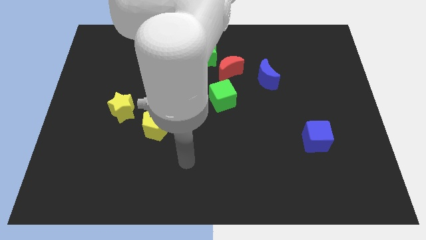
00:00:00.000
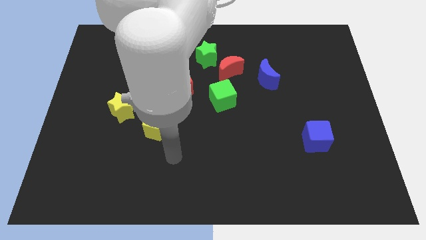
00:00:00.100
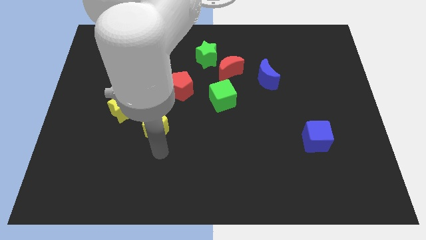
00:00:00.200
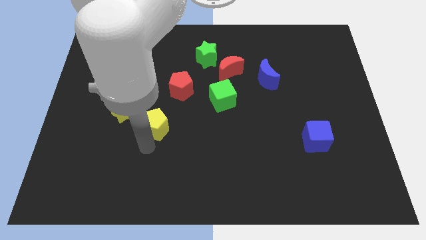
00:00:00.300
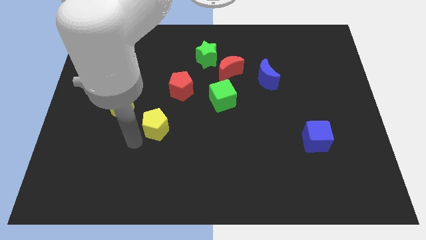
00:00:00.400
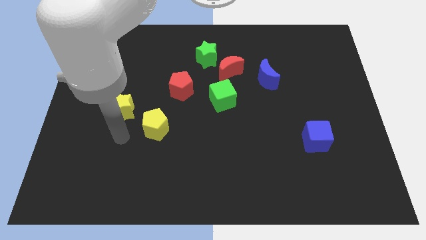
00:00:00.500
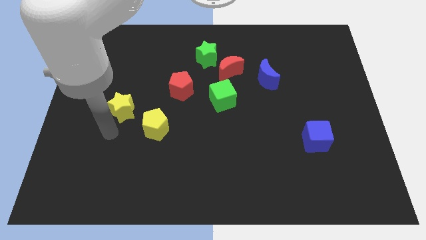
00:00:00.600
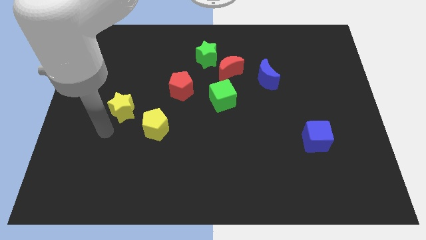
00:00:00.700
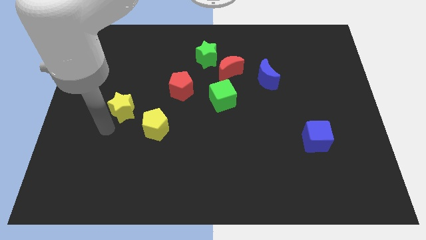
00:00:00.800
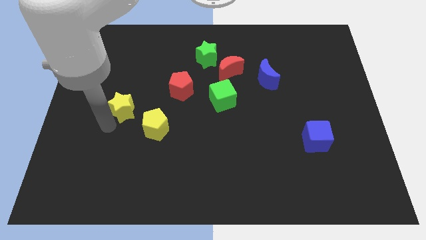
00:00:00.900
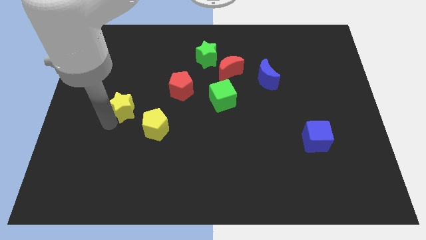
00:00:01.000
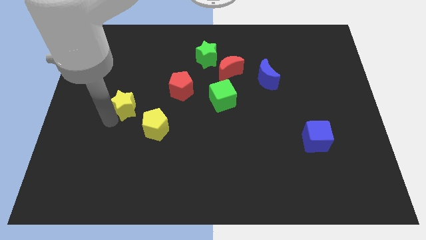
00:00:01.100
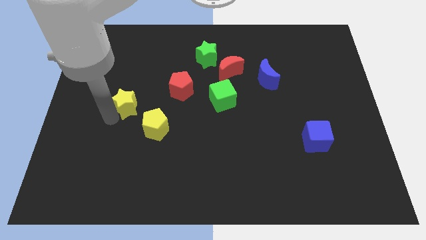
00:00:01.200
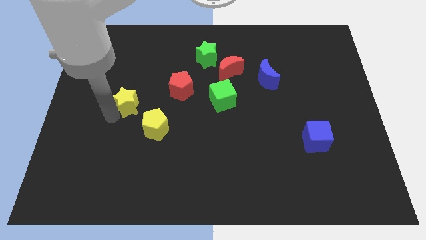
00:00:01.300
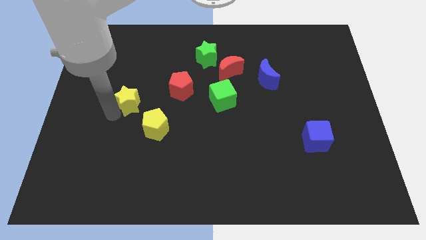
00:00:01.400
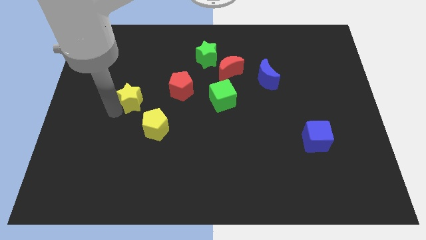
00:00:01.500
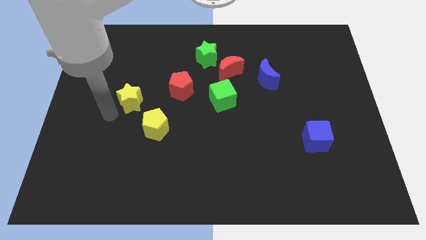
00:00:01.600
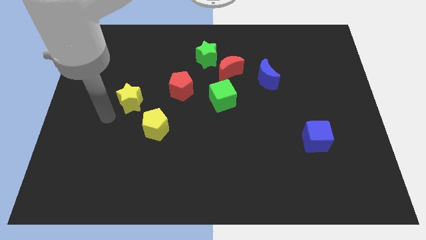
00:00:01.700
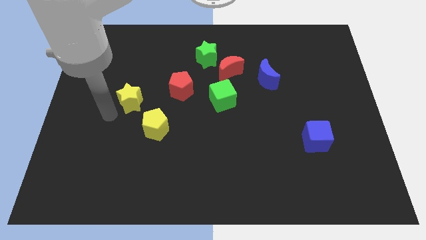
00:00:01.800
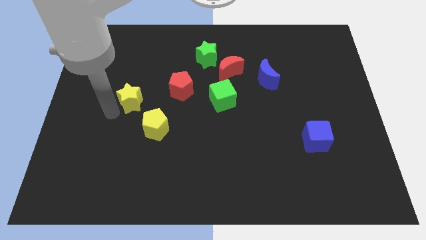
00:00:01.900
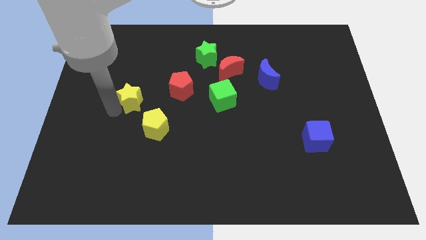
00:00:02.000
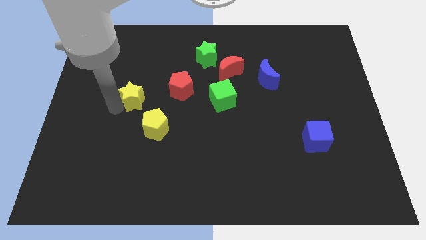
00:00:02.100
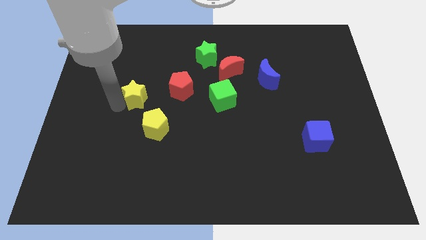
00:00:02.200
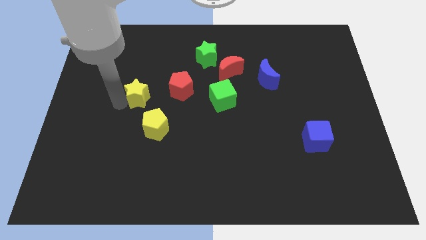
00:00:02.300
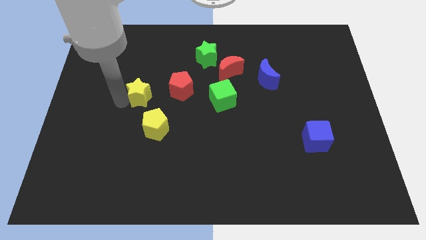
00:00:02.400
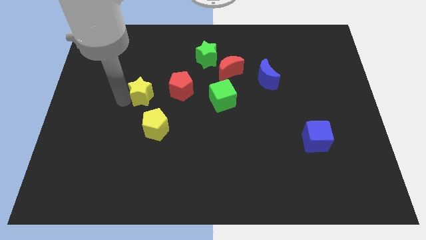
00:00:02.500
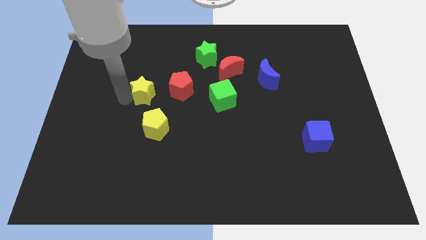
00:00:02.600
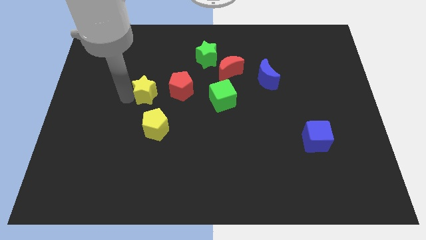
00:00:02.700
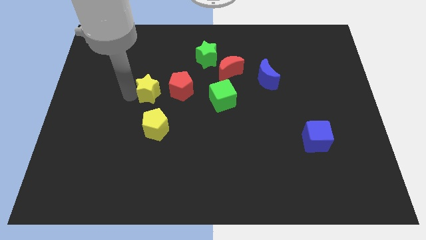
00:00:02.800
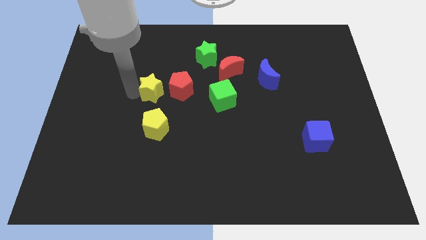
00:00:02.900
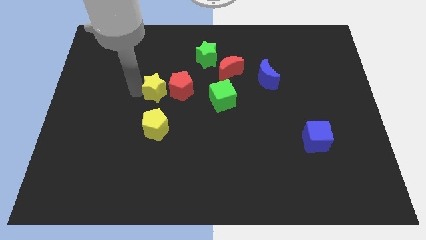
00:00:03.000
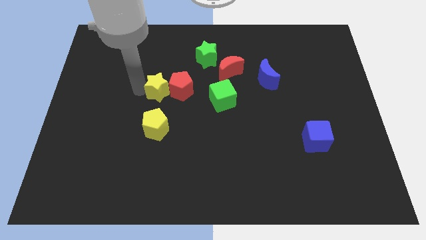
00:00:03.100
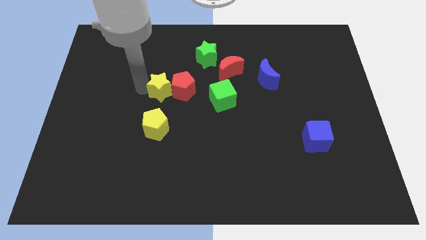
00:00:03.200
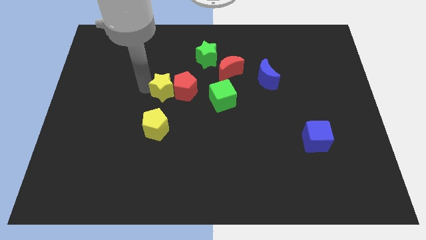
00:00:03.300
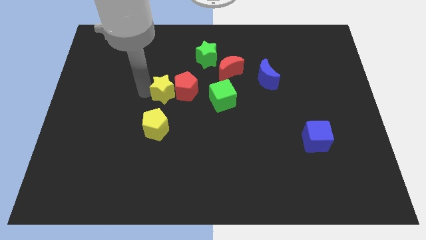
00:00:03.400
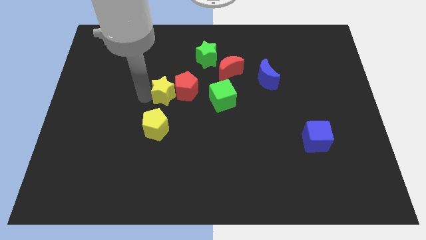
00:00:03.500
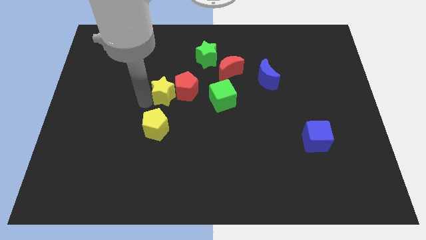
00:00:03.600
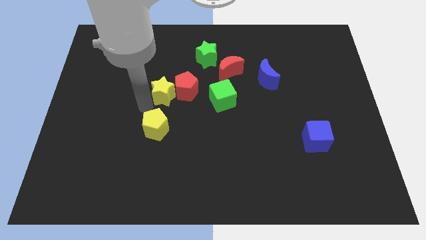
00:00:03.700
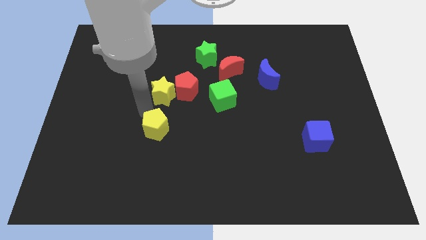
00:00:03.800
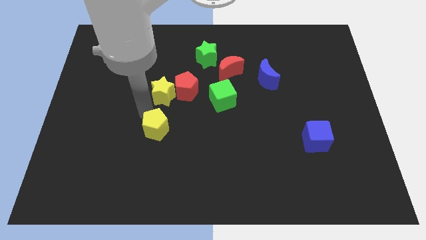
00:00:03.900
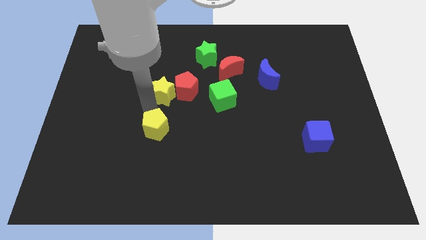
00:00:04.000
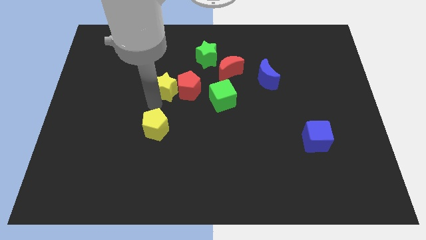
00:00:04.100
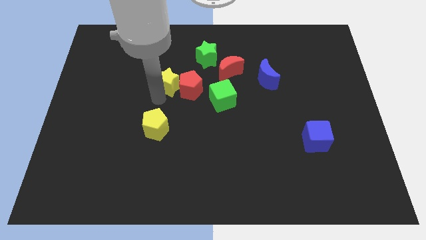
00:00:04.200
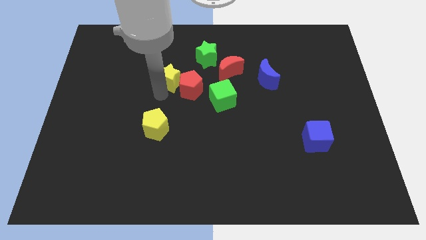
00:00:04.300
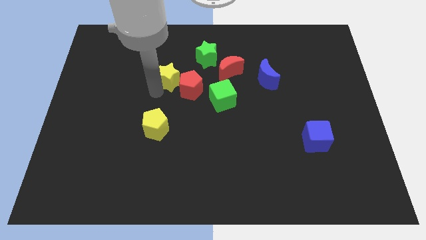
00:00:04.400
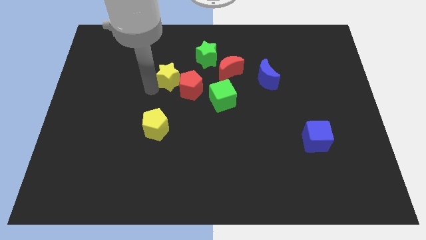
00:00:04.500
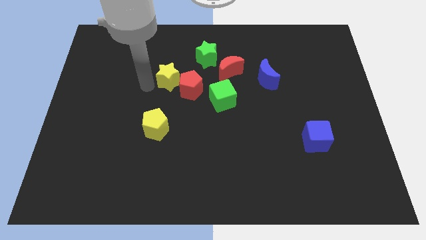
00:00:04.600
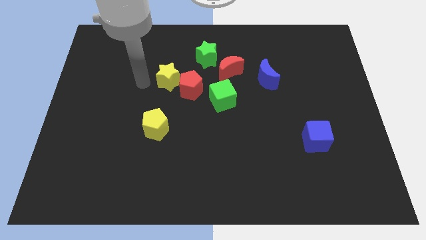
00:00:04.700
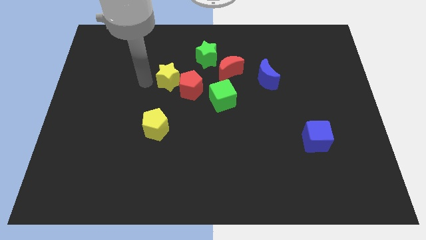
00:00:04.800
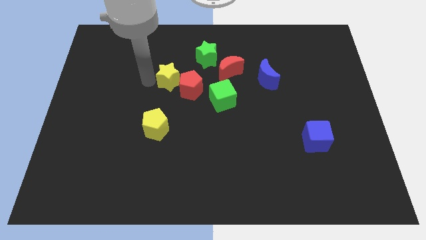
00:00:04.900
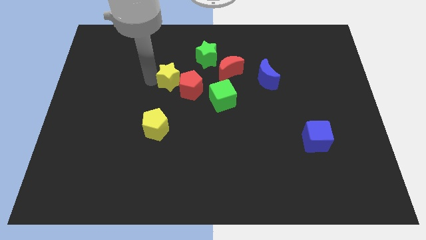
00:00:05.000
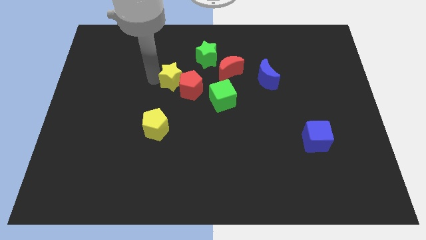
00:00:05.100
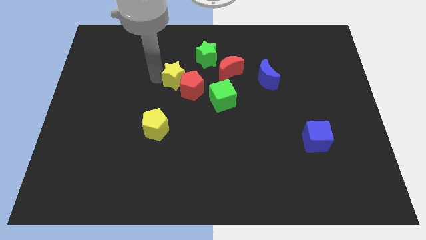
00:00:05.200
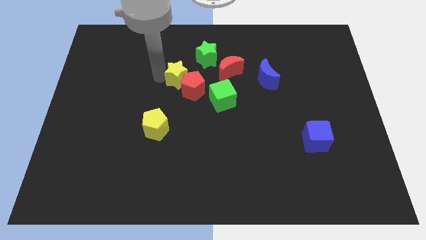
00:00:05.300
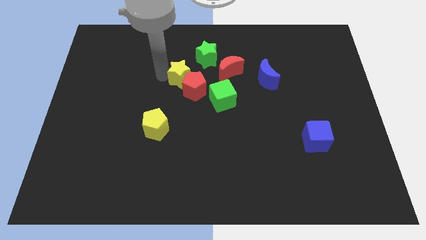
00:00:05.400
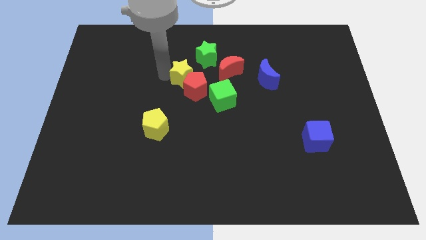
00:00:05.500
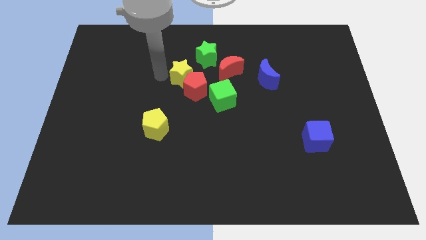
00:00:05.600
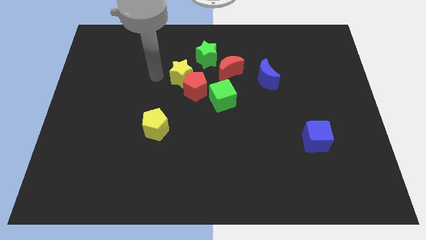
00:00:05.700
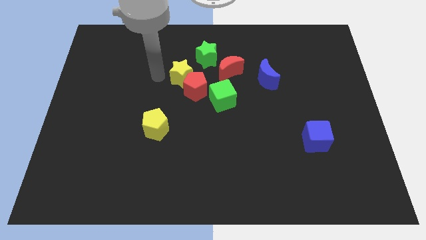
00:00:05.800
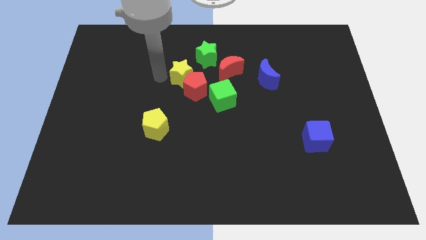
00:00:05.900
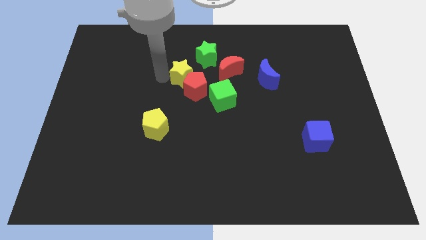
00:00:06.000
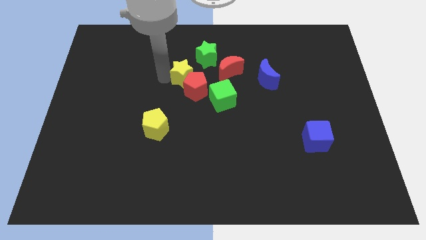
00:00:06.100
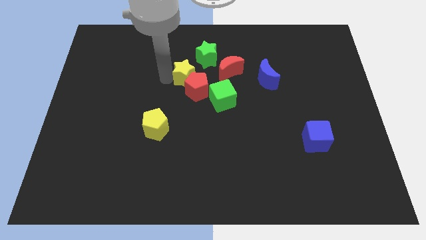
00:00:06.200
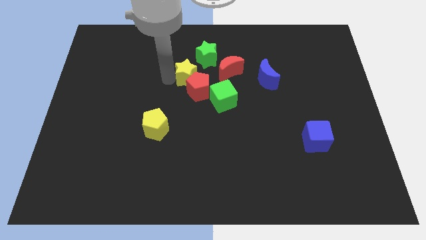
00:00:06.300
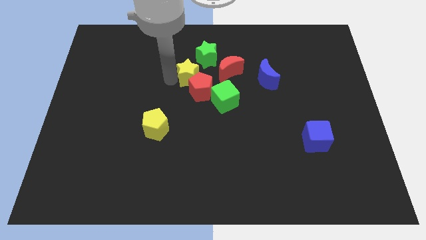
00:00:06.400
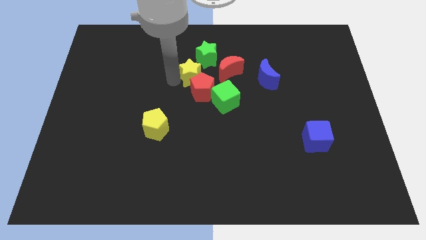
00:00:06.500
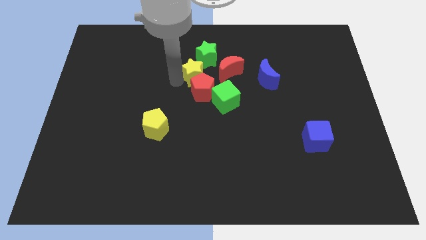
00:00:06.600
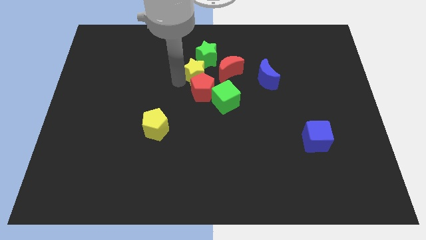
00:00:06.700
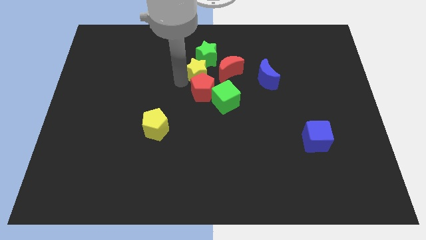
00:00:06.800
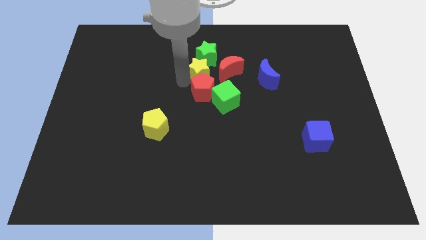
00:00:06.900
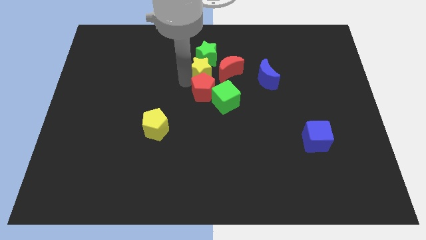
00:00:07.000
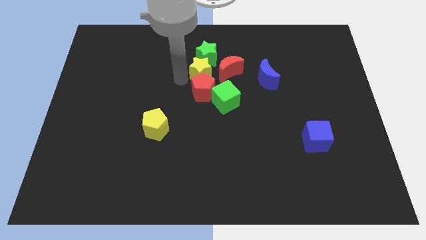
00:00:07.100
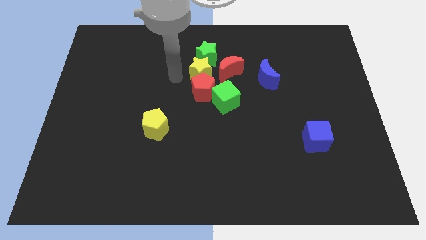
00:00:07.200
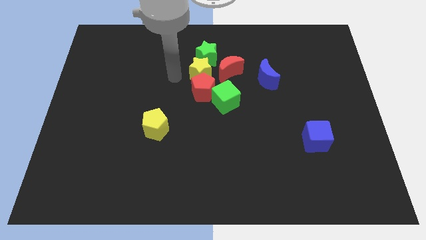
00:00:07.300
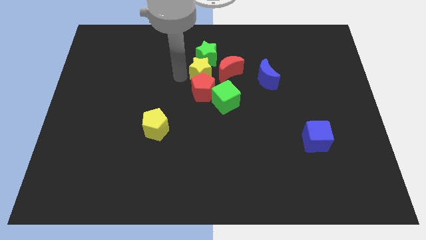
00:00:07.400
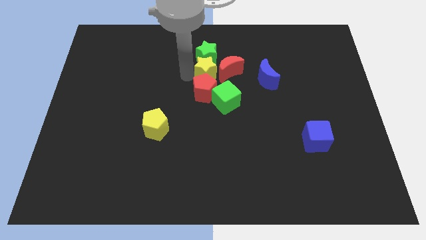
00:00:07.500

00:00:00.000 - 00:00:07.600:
put the yellow star to the red moon
